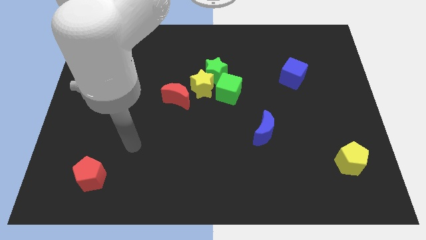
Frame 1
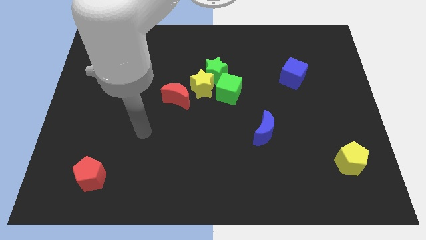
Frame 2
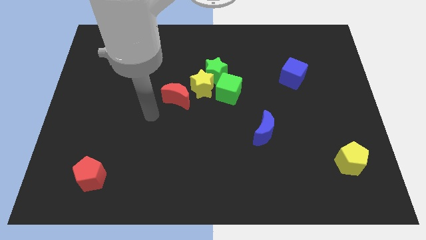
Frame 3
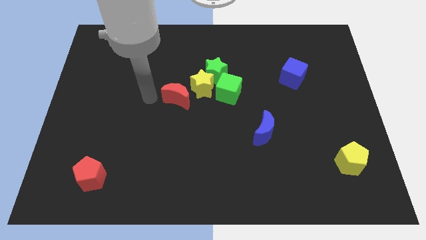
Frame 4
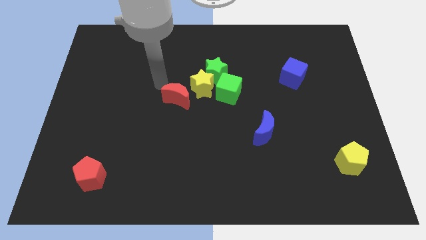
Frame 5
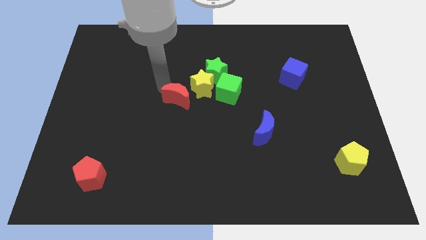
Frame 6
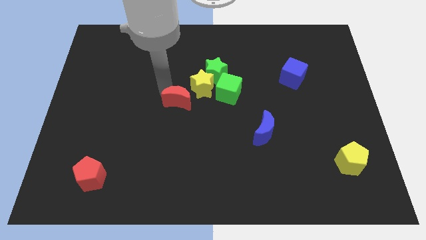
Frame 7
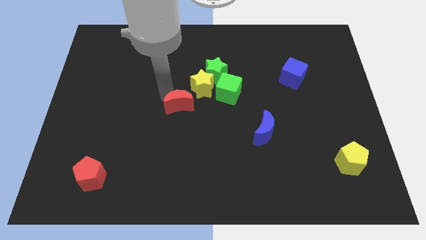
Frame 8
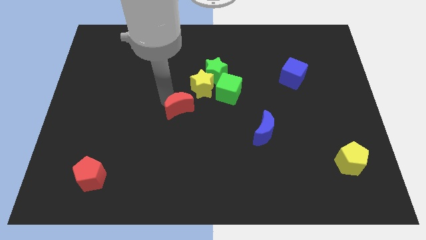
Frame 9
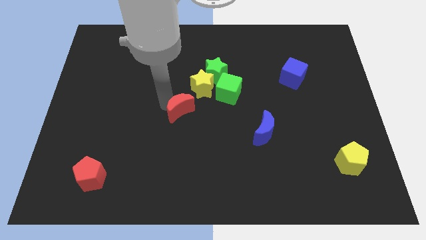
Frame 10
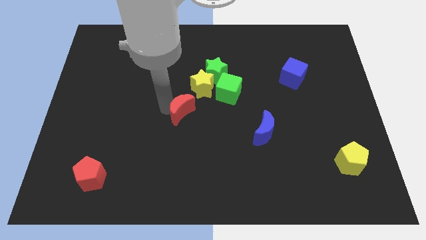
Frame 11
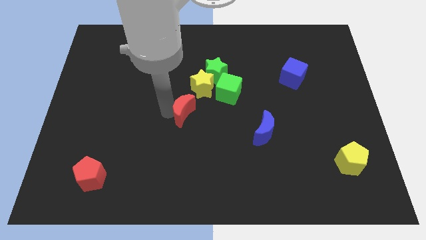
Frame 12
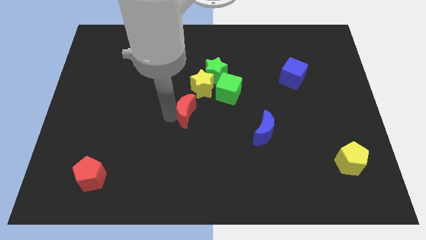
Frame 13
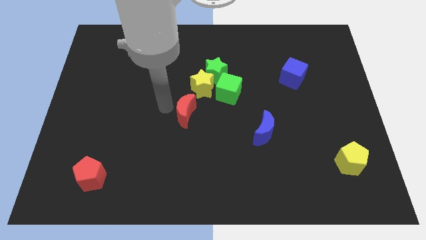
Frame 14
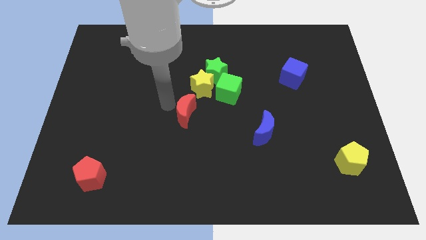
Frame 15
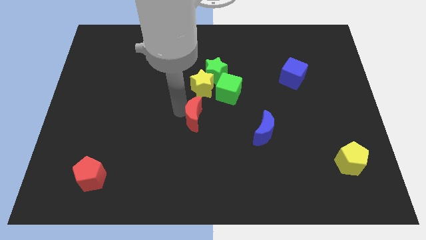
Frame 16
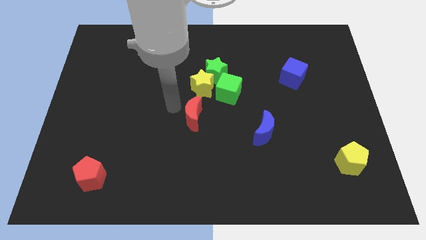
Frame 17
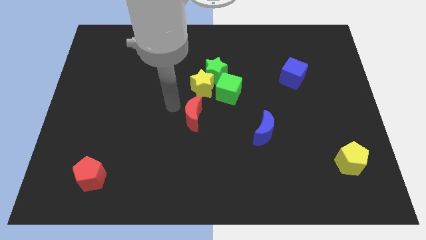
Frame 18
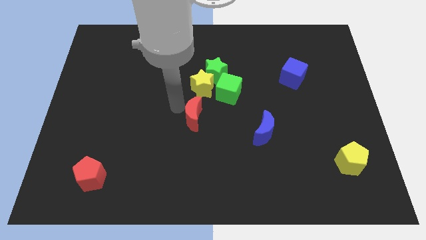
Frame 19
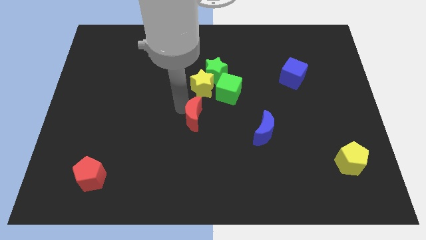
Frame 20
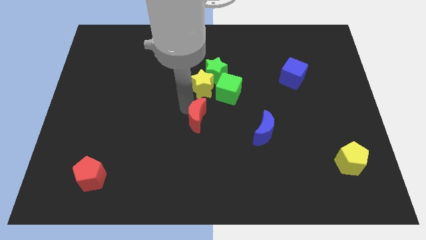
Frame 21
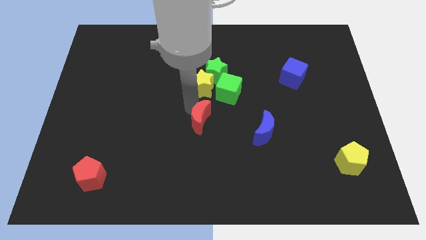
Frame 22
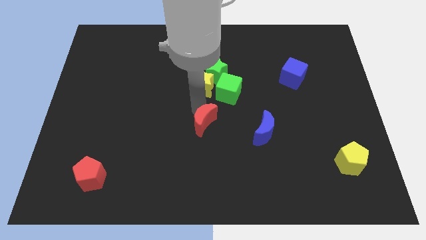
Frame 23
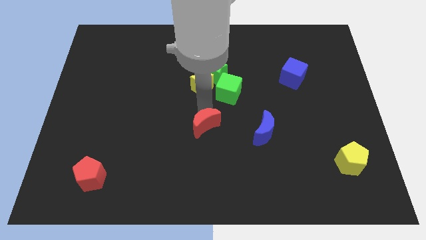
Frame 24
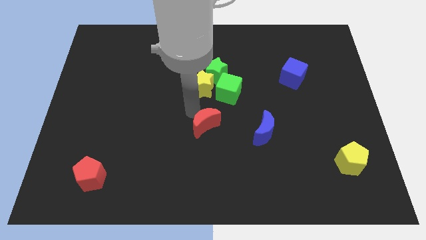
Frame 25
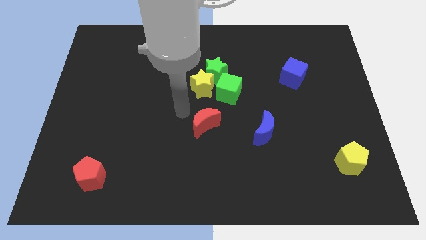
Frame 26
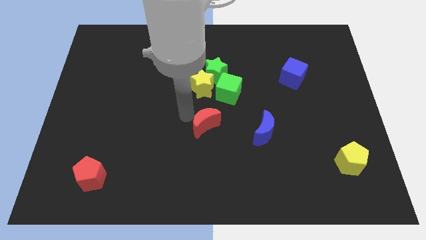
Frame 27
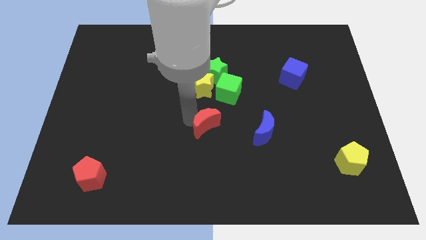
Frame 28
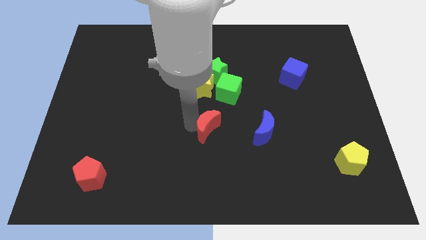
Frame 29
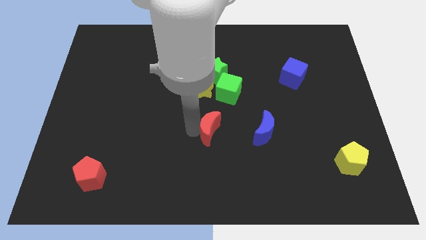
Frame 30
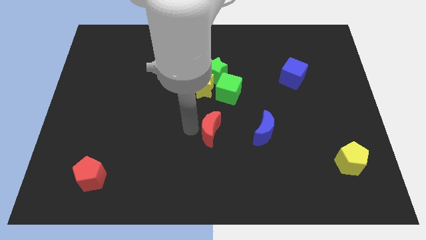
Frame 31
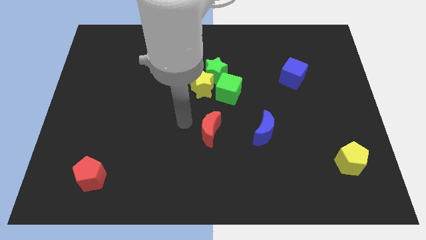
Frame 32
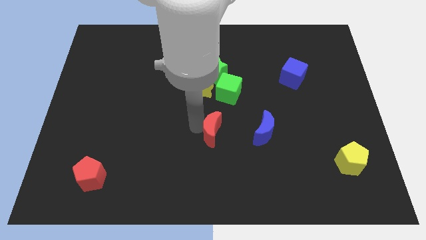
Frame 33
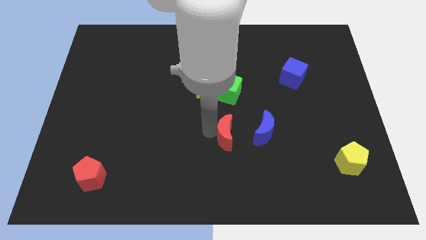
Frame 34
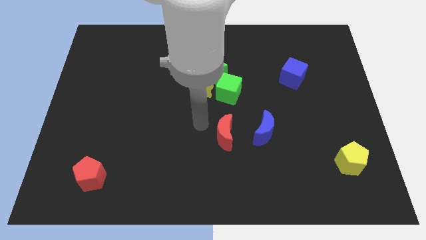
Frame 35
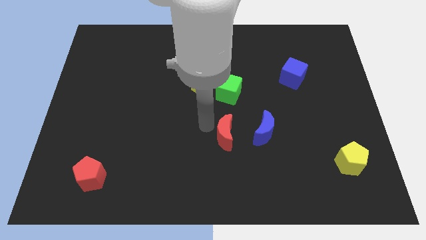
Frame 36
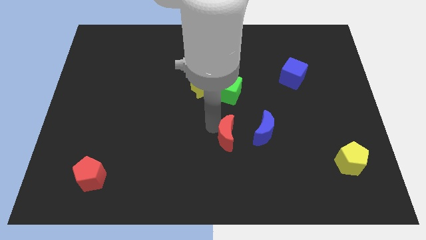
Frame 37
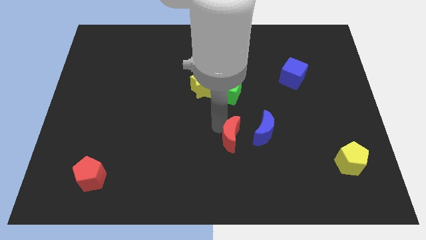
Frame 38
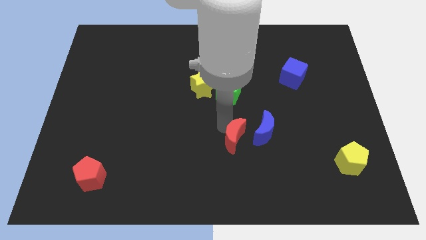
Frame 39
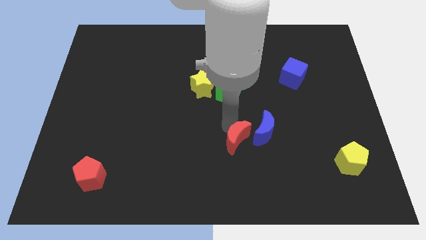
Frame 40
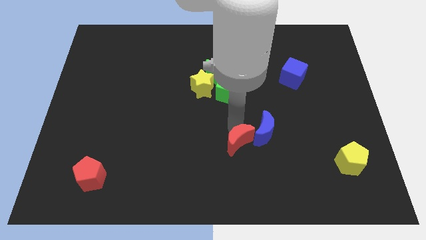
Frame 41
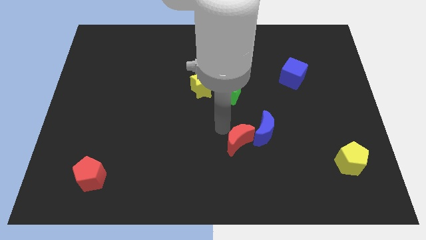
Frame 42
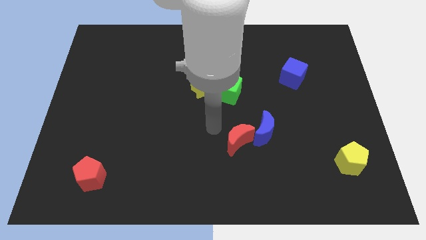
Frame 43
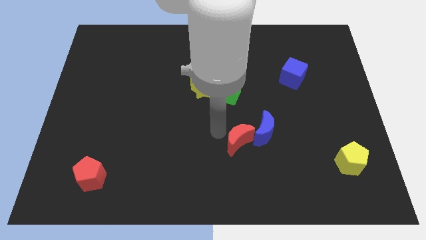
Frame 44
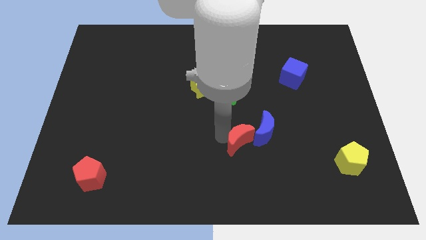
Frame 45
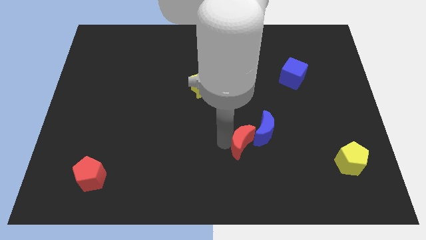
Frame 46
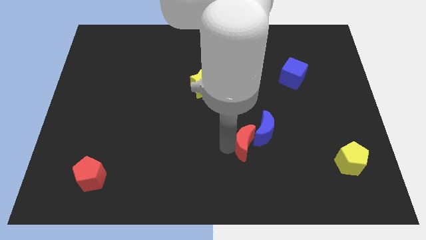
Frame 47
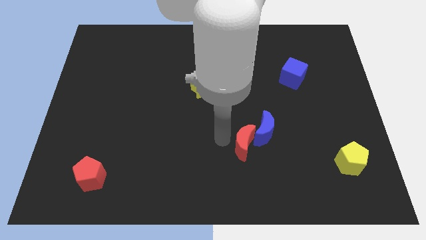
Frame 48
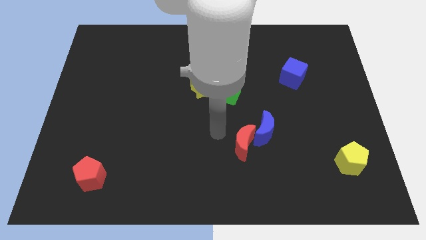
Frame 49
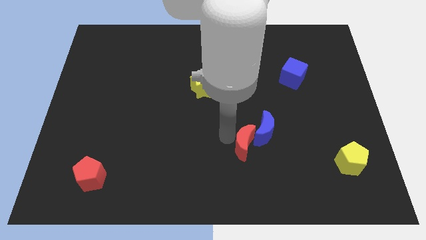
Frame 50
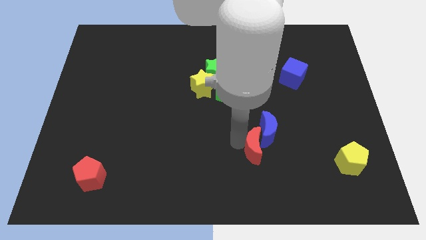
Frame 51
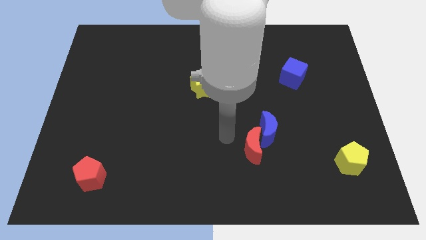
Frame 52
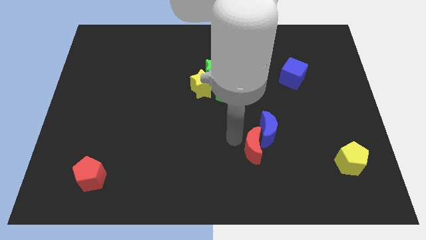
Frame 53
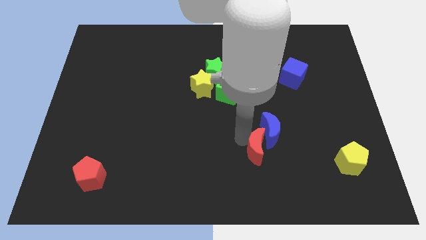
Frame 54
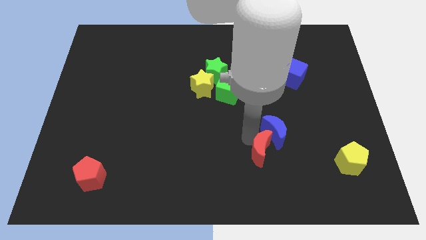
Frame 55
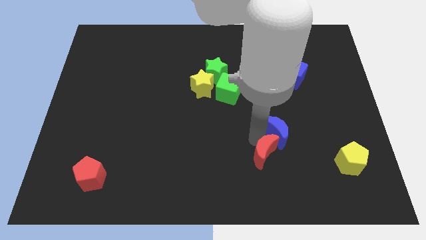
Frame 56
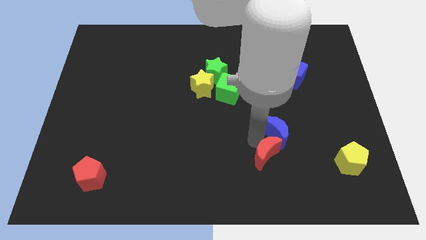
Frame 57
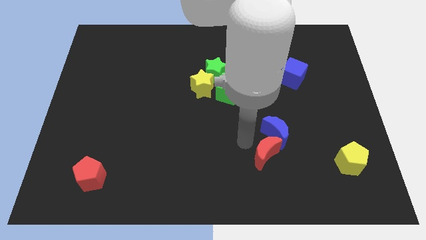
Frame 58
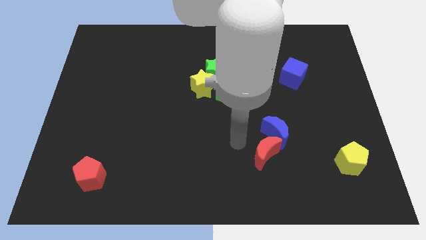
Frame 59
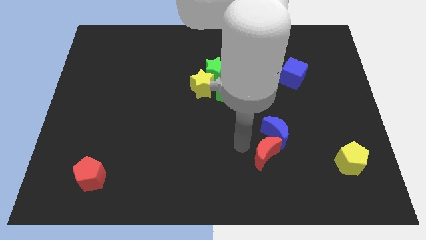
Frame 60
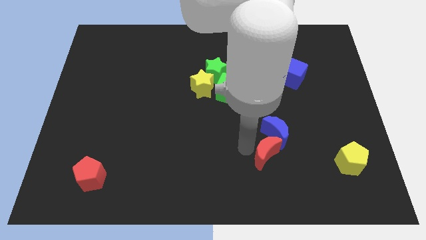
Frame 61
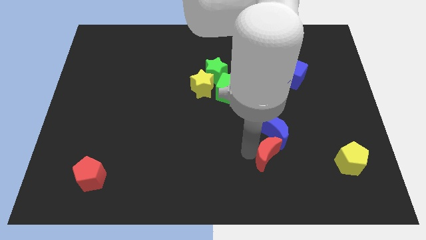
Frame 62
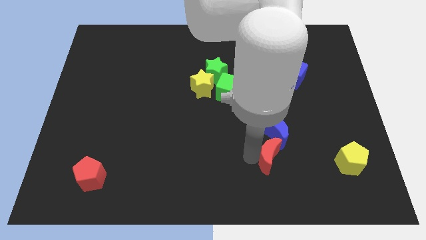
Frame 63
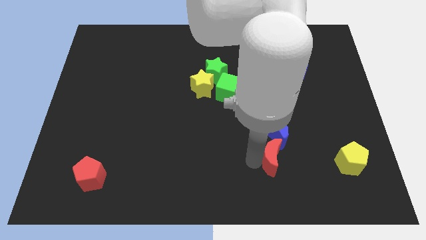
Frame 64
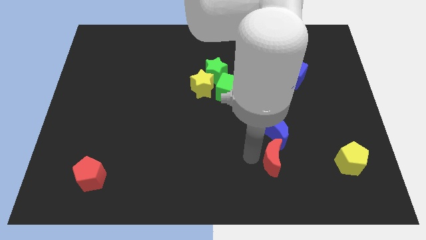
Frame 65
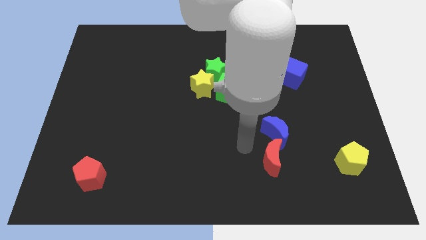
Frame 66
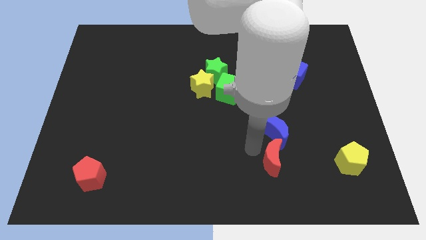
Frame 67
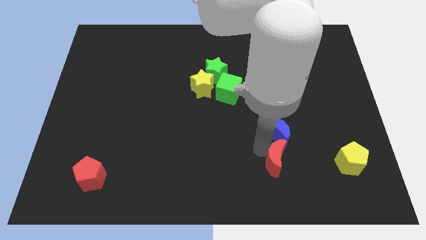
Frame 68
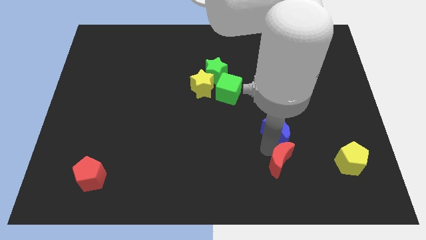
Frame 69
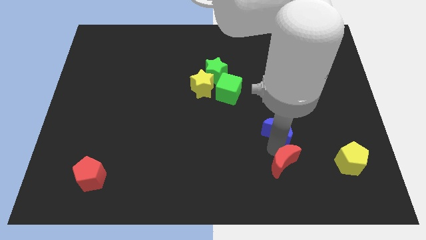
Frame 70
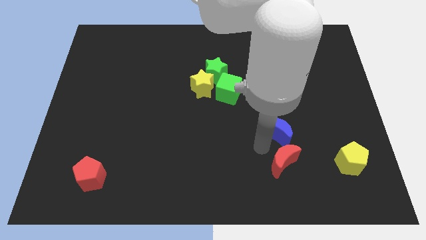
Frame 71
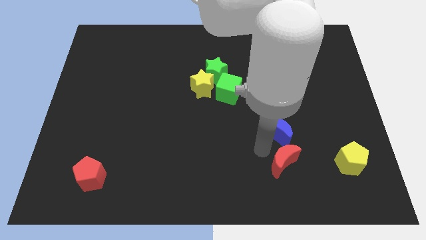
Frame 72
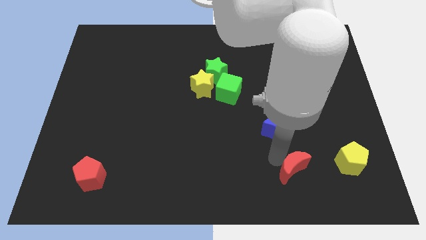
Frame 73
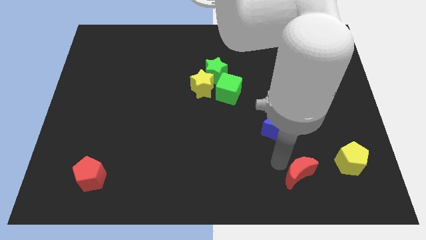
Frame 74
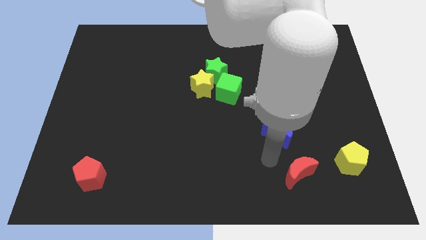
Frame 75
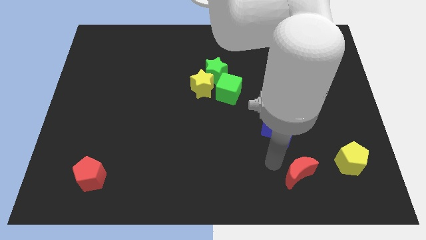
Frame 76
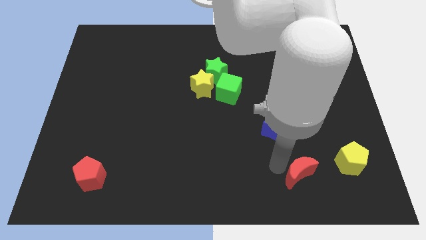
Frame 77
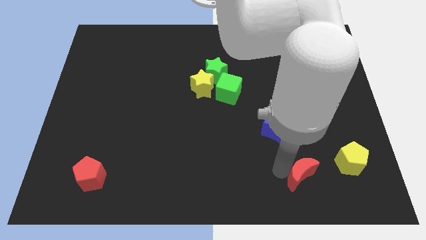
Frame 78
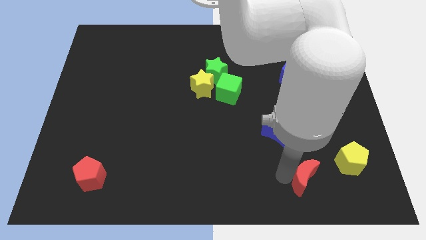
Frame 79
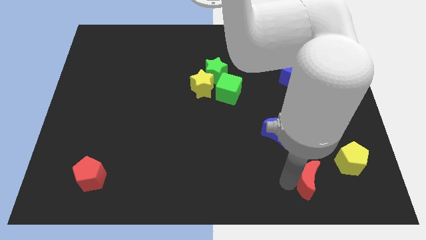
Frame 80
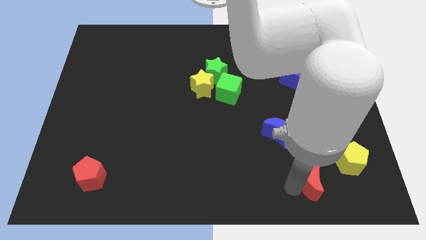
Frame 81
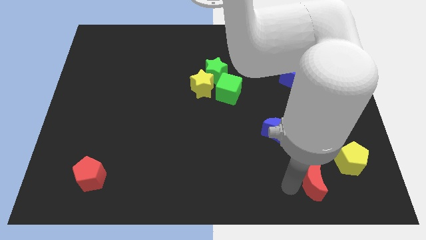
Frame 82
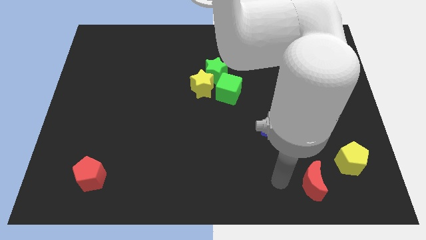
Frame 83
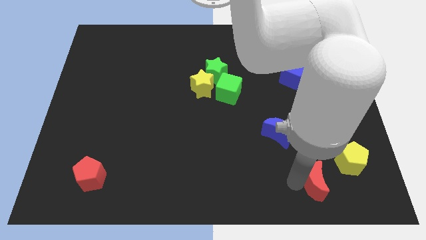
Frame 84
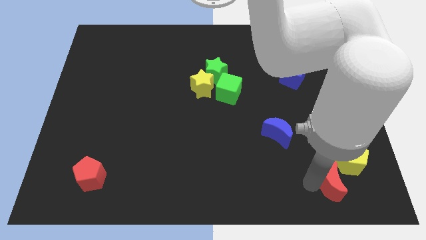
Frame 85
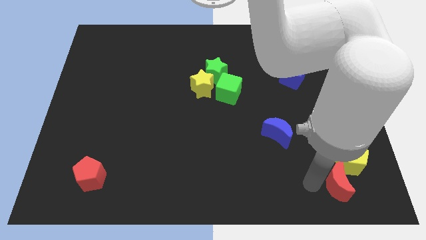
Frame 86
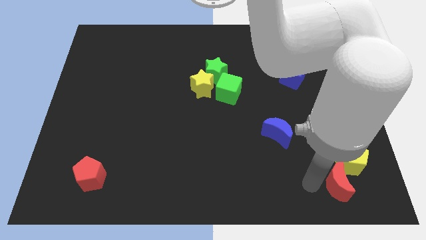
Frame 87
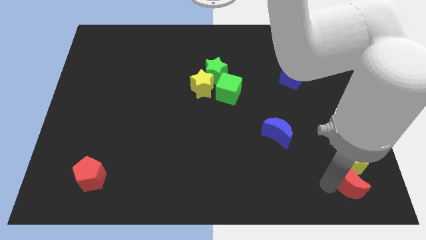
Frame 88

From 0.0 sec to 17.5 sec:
put the red moon to the lower right corner
